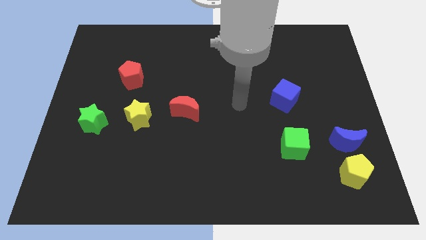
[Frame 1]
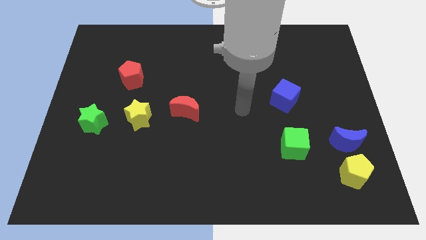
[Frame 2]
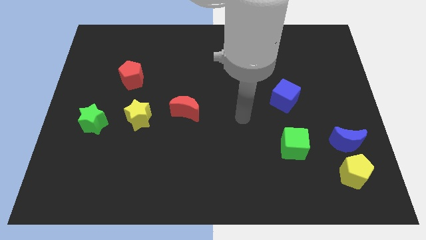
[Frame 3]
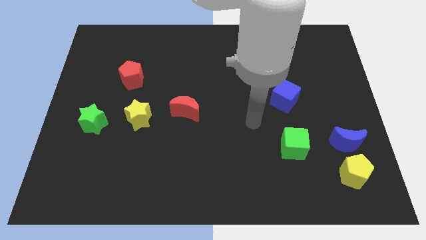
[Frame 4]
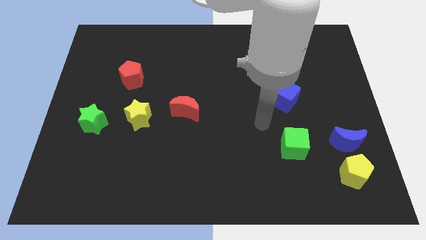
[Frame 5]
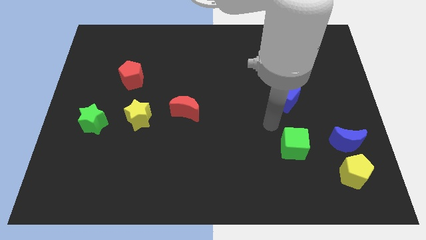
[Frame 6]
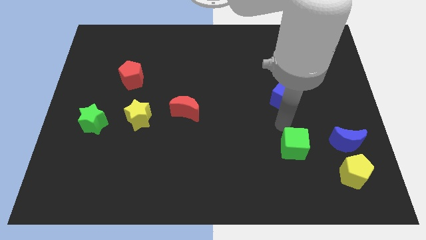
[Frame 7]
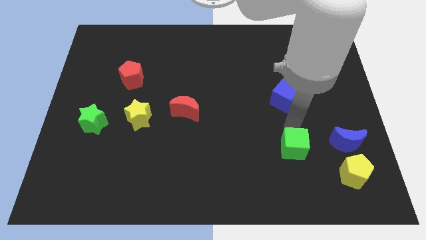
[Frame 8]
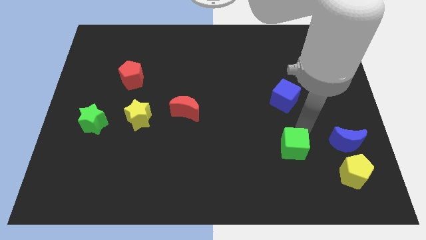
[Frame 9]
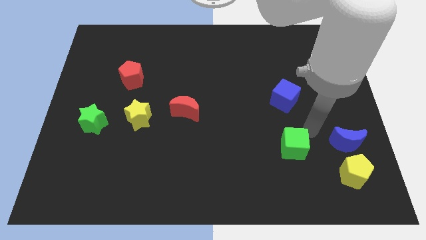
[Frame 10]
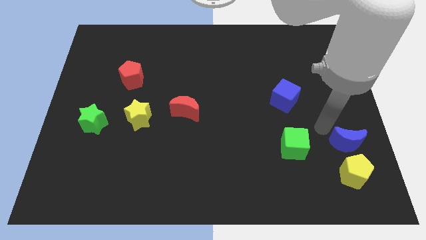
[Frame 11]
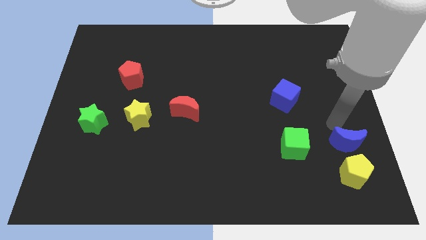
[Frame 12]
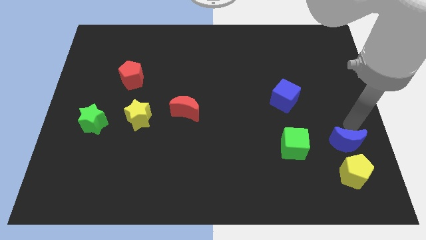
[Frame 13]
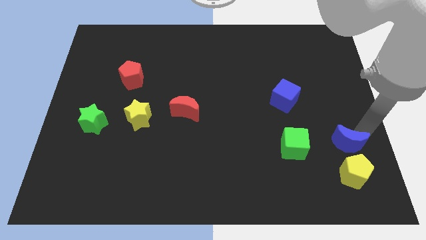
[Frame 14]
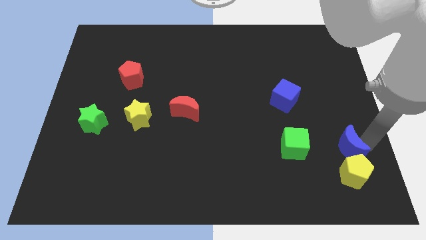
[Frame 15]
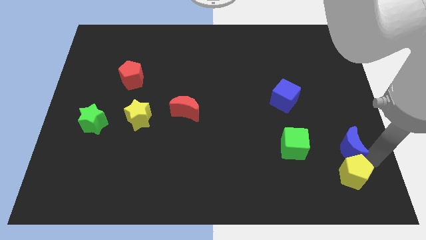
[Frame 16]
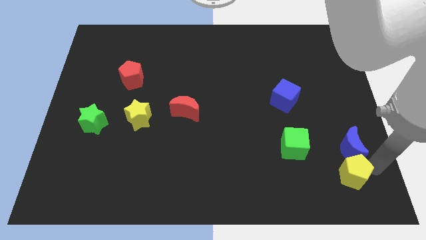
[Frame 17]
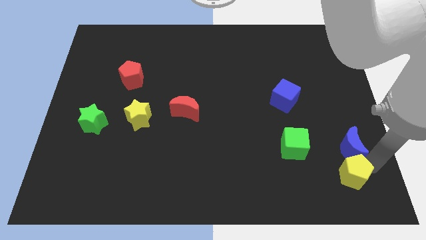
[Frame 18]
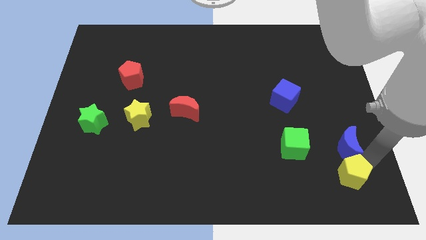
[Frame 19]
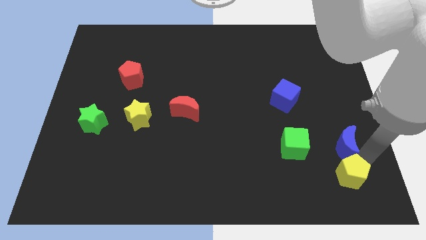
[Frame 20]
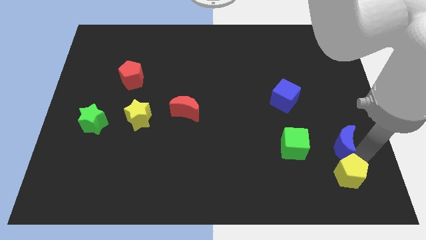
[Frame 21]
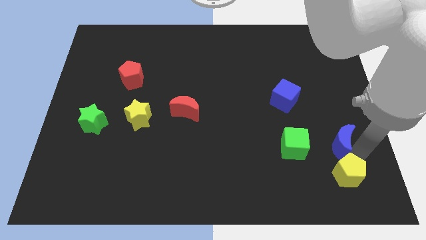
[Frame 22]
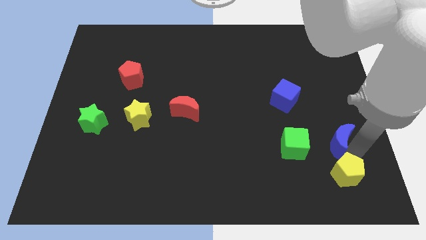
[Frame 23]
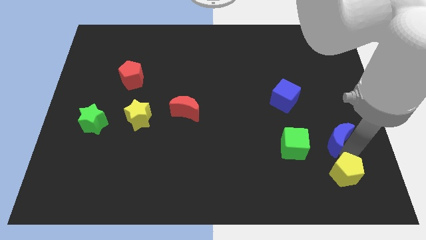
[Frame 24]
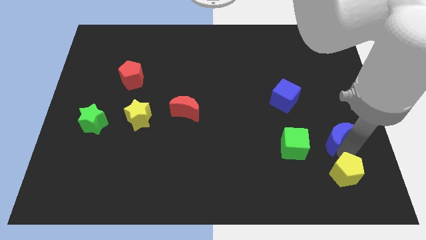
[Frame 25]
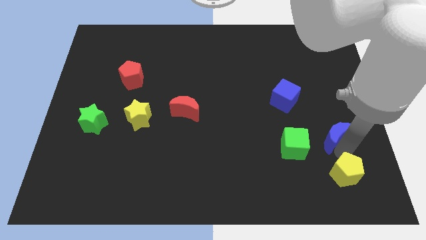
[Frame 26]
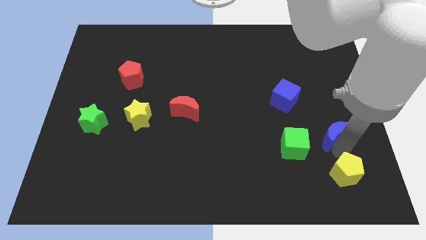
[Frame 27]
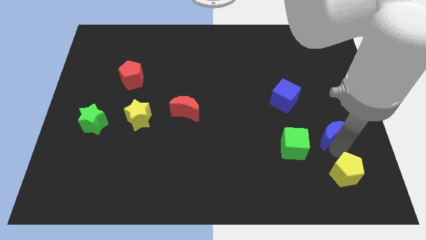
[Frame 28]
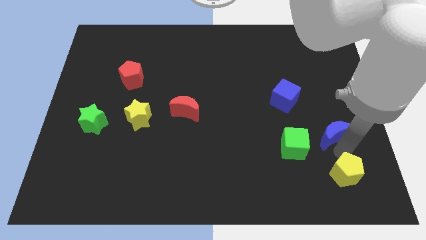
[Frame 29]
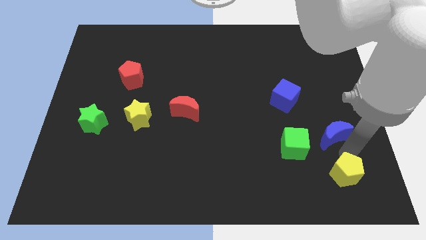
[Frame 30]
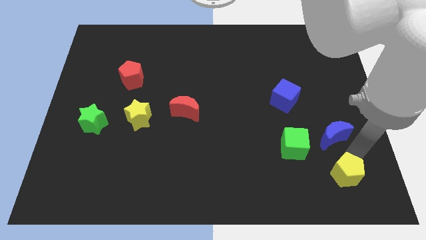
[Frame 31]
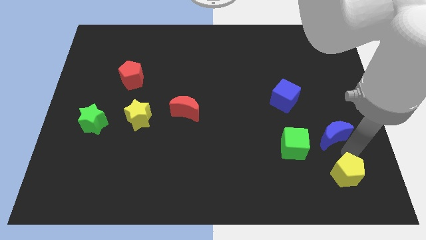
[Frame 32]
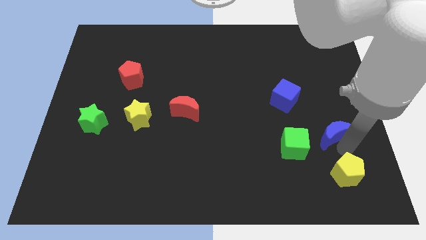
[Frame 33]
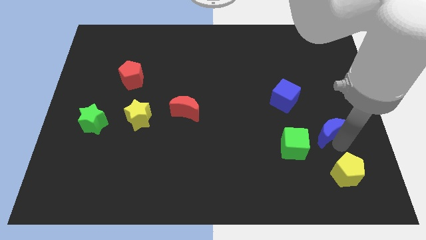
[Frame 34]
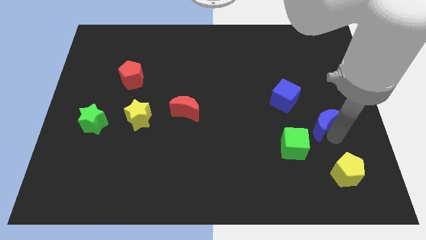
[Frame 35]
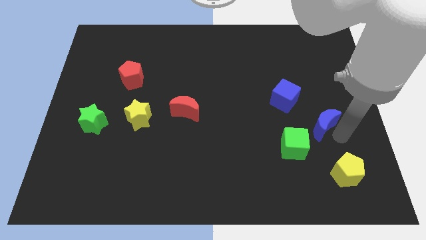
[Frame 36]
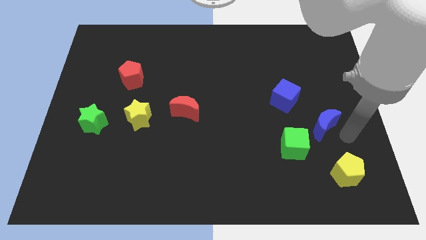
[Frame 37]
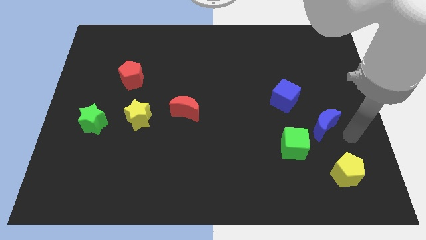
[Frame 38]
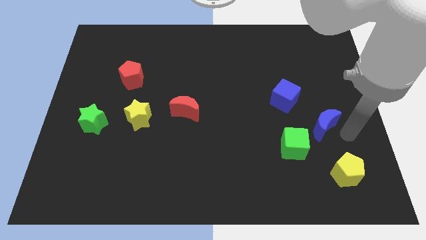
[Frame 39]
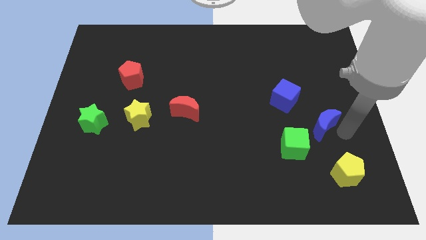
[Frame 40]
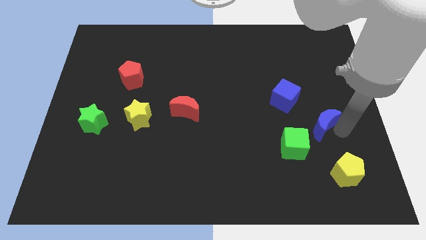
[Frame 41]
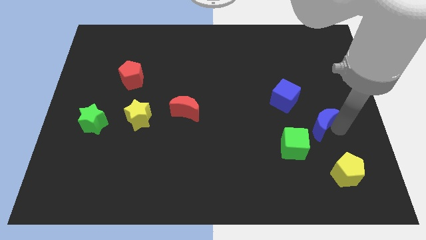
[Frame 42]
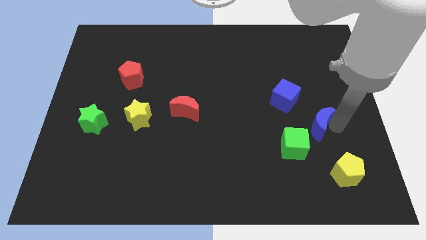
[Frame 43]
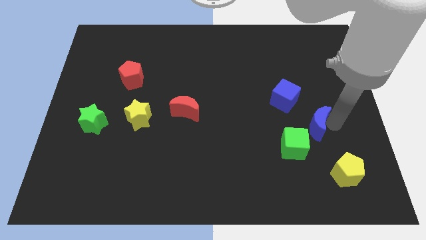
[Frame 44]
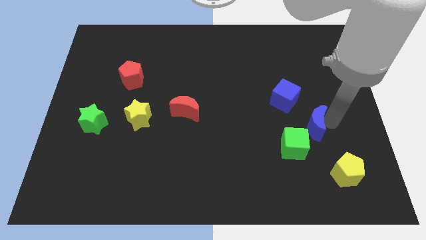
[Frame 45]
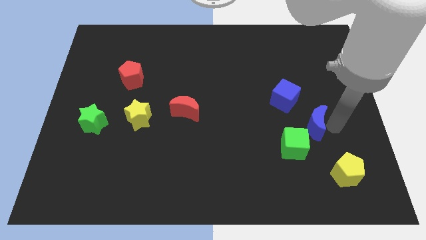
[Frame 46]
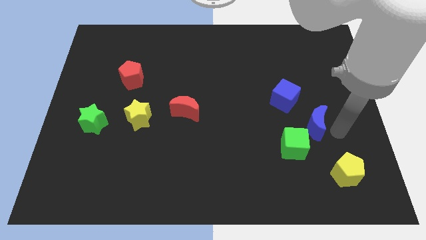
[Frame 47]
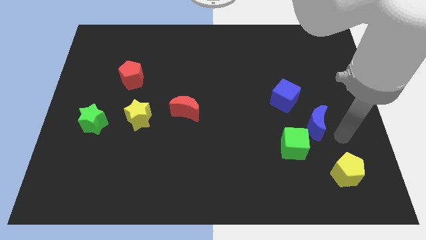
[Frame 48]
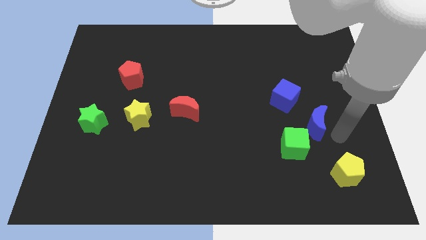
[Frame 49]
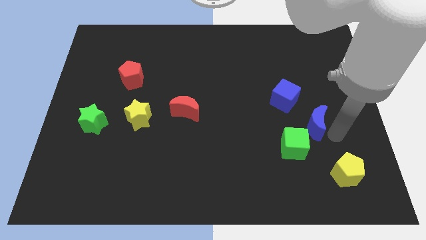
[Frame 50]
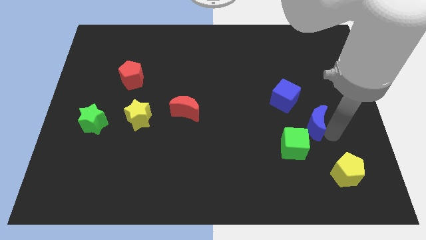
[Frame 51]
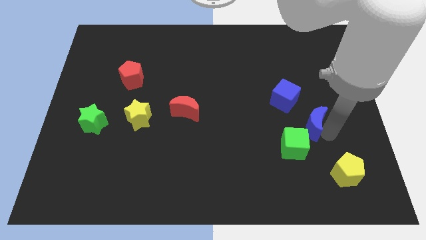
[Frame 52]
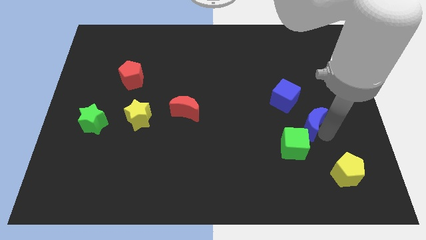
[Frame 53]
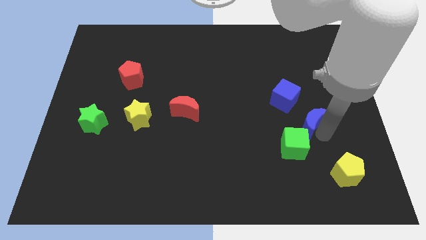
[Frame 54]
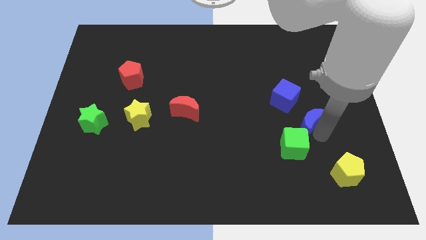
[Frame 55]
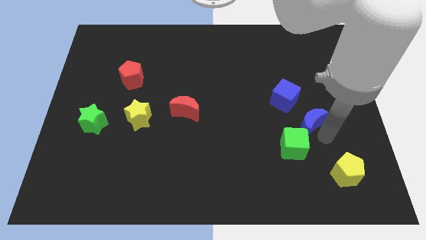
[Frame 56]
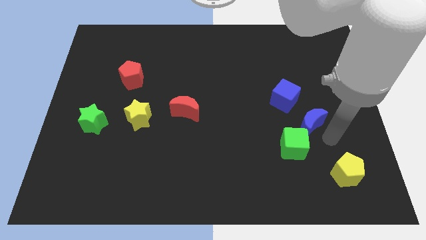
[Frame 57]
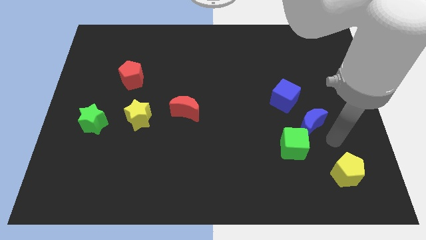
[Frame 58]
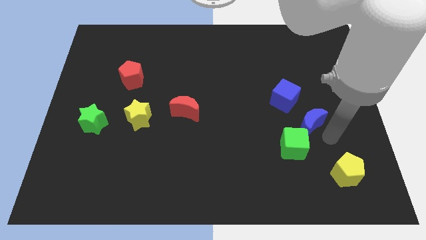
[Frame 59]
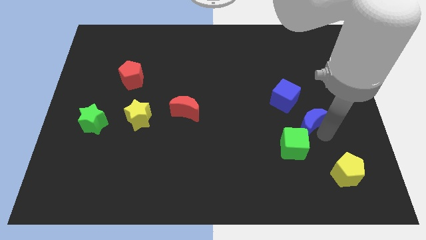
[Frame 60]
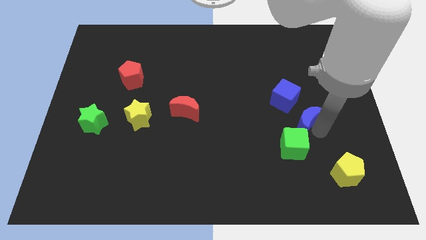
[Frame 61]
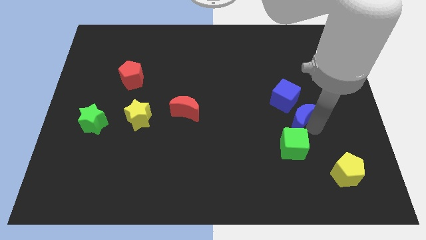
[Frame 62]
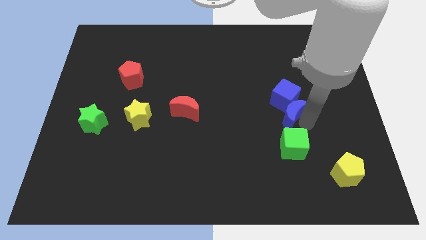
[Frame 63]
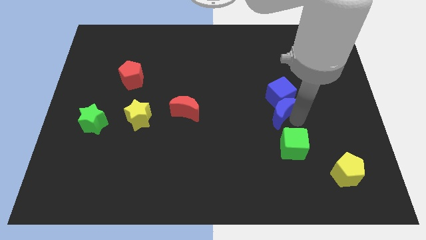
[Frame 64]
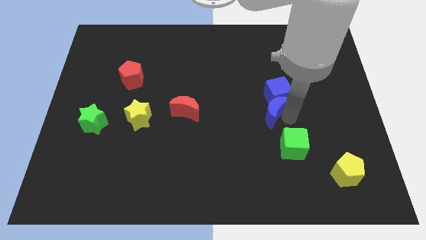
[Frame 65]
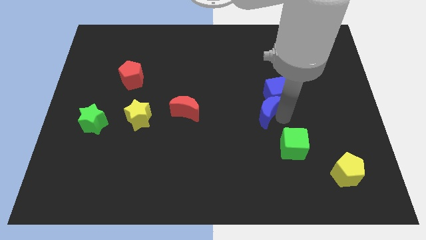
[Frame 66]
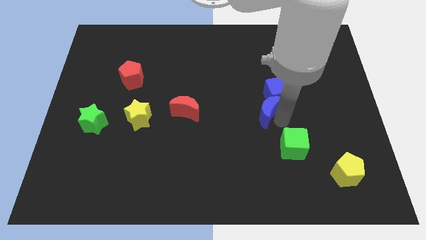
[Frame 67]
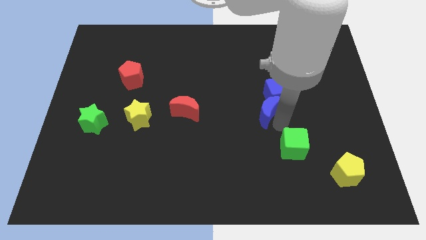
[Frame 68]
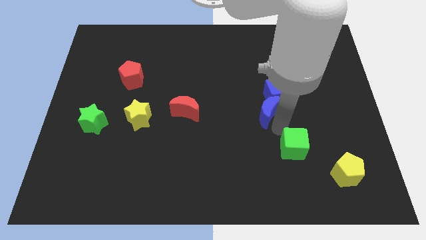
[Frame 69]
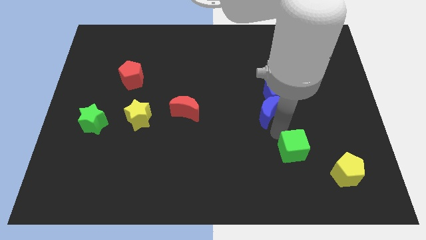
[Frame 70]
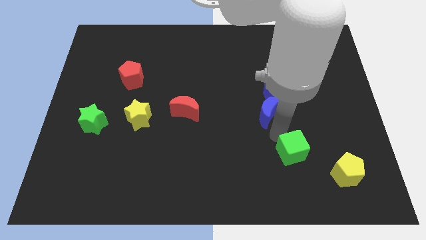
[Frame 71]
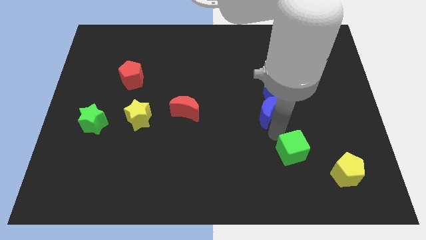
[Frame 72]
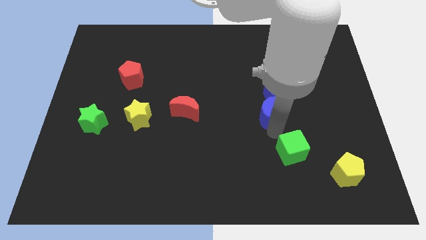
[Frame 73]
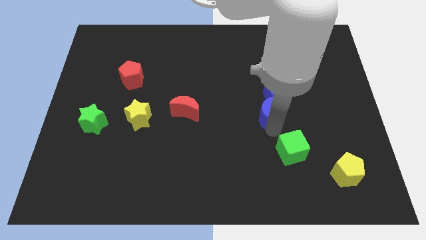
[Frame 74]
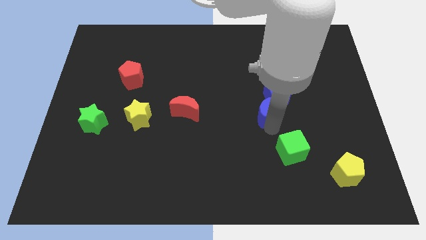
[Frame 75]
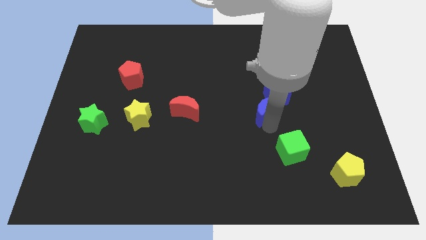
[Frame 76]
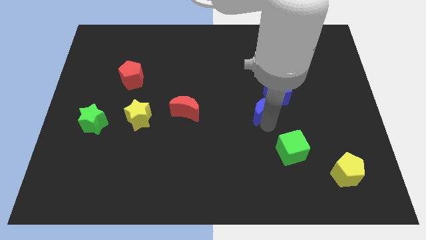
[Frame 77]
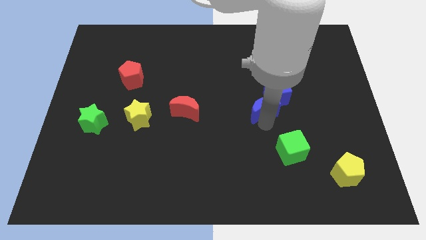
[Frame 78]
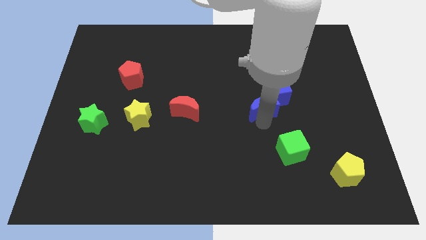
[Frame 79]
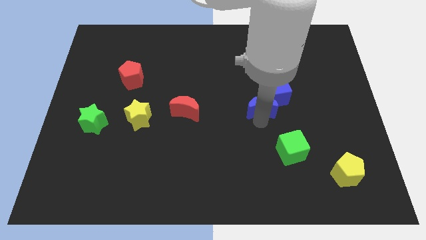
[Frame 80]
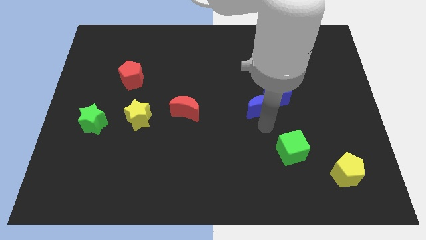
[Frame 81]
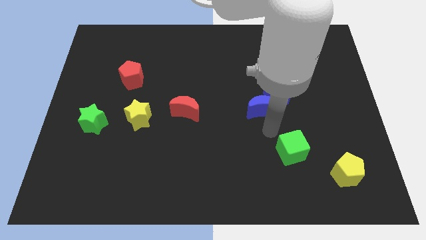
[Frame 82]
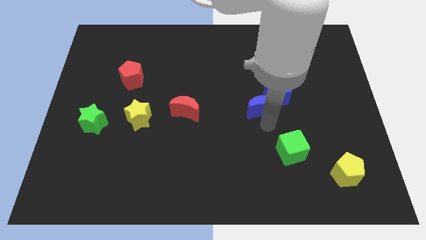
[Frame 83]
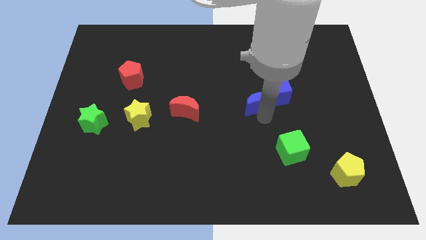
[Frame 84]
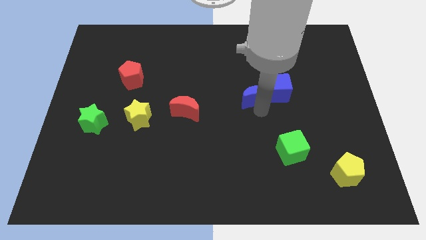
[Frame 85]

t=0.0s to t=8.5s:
slide the blue moon upwards and then to the left
